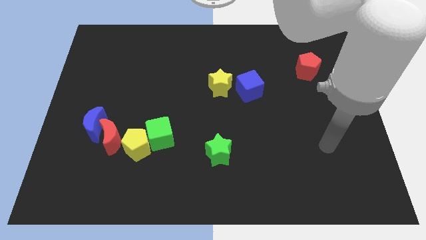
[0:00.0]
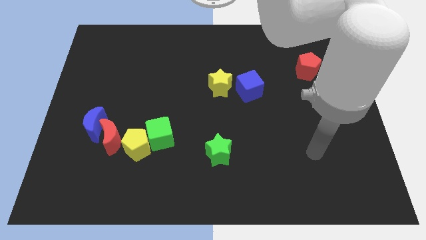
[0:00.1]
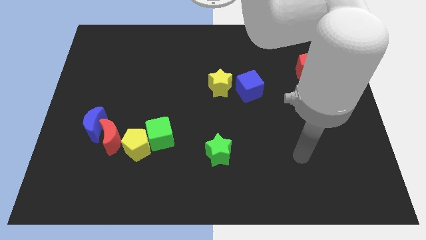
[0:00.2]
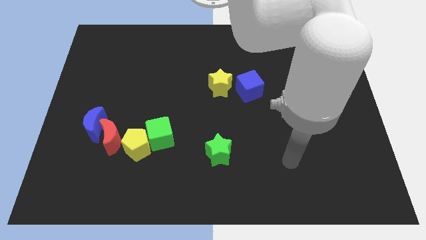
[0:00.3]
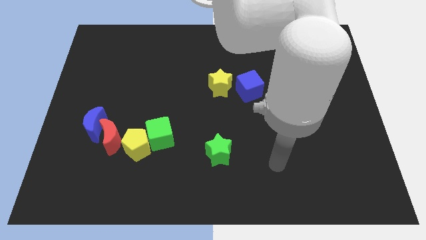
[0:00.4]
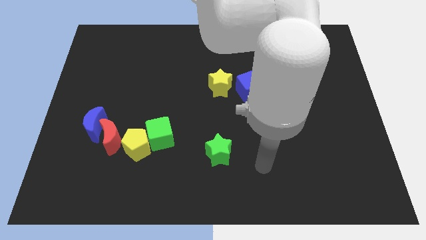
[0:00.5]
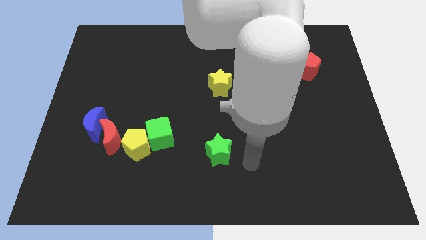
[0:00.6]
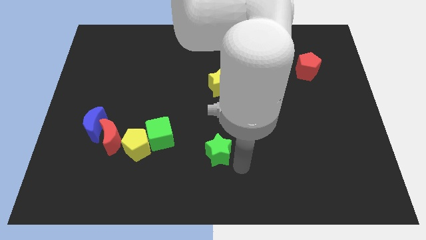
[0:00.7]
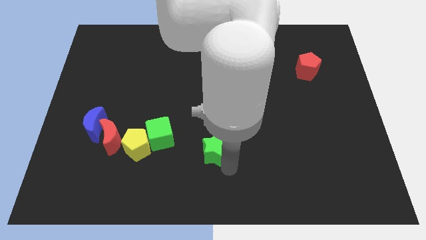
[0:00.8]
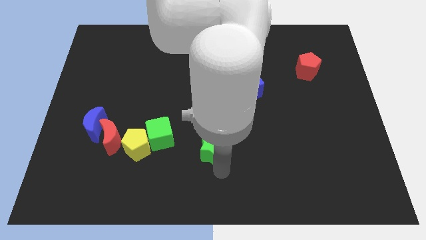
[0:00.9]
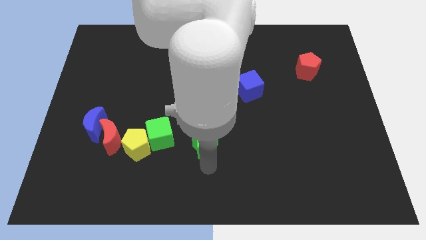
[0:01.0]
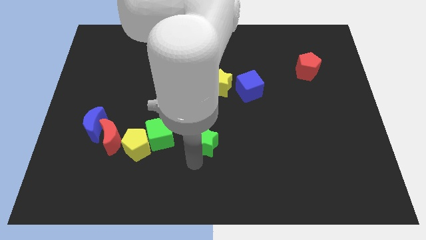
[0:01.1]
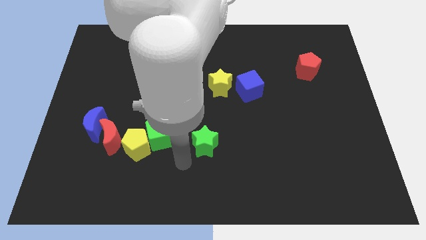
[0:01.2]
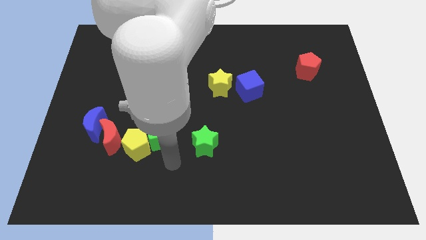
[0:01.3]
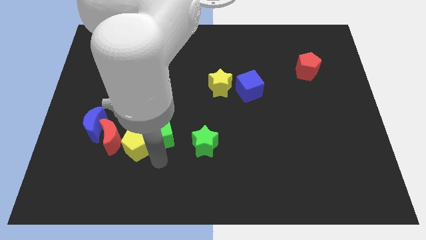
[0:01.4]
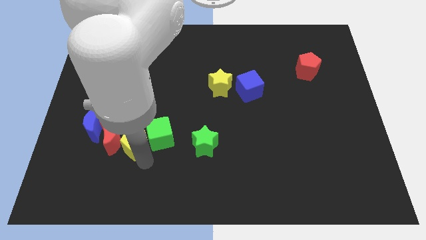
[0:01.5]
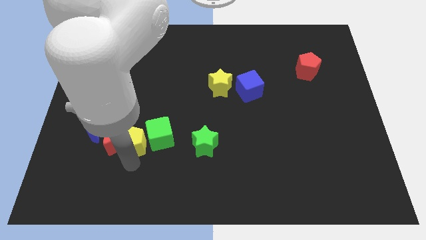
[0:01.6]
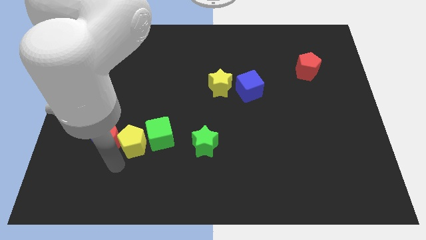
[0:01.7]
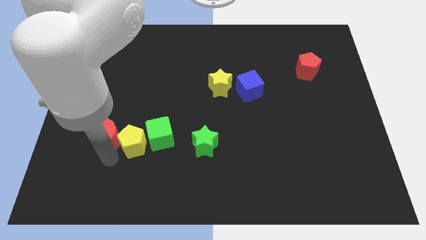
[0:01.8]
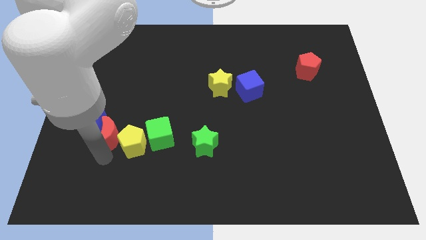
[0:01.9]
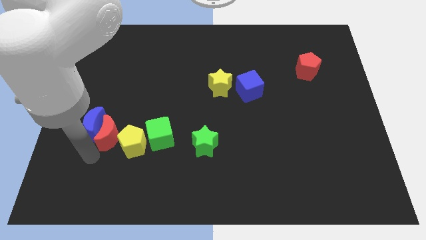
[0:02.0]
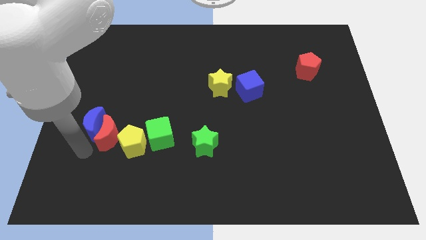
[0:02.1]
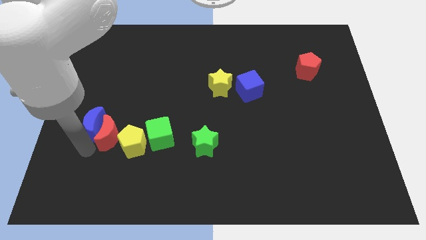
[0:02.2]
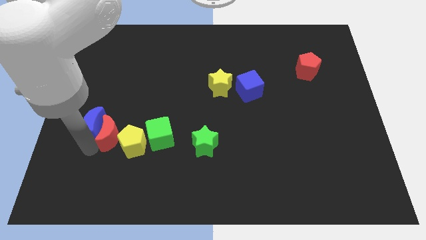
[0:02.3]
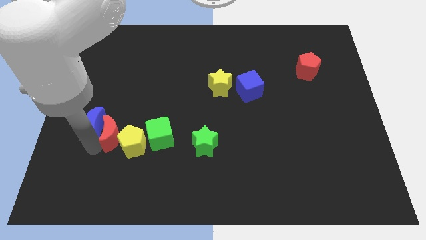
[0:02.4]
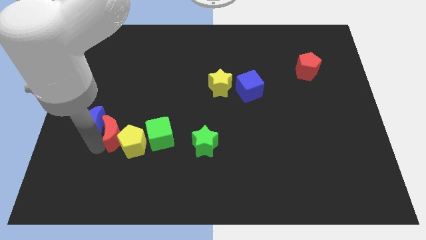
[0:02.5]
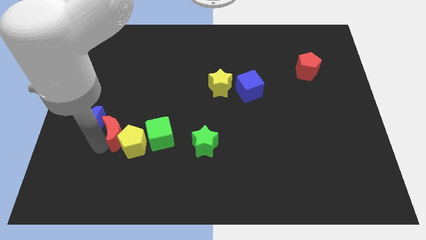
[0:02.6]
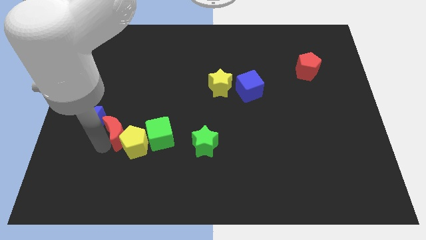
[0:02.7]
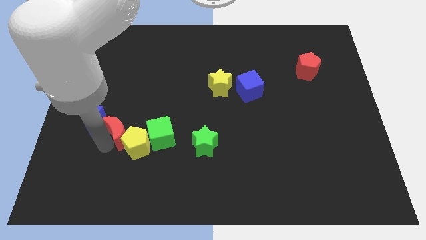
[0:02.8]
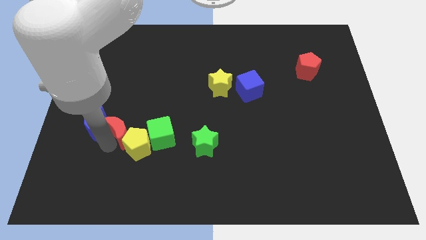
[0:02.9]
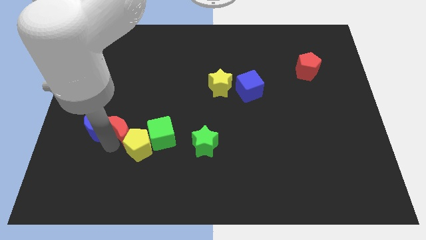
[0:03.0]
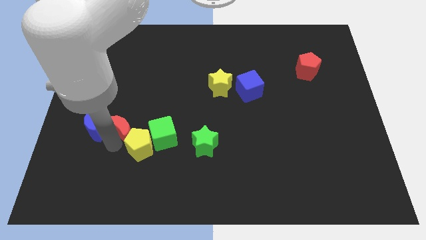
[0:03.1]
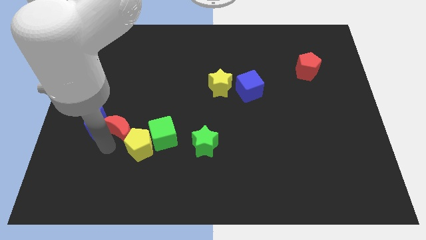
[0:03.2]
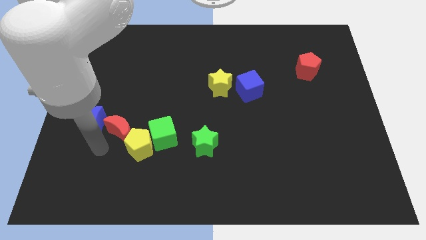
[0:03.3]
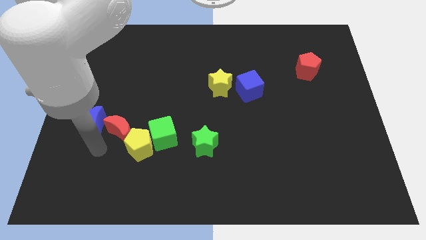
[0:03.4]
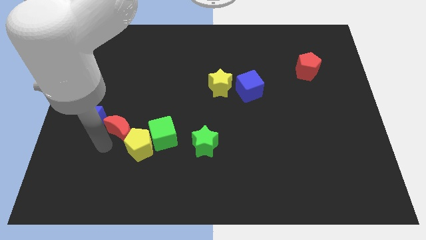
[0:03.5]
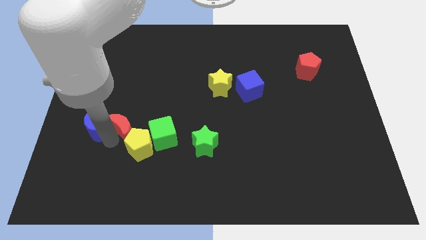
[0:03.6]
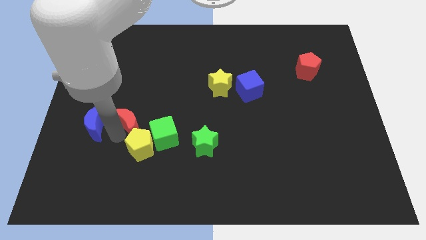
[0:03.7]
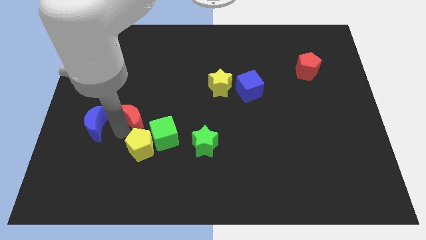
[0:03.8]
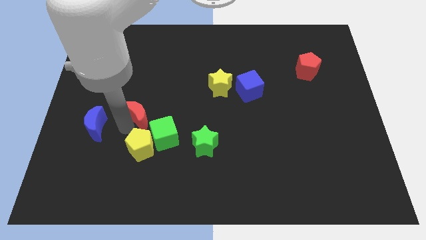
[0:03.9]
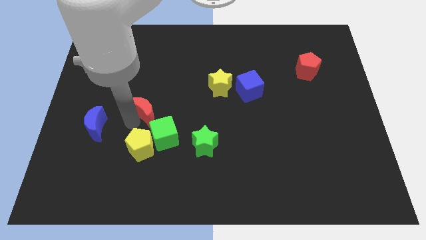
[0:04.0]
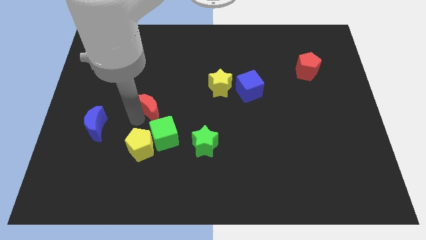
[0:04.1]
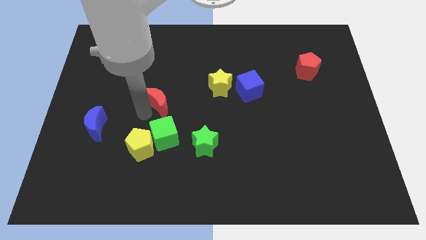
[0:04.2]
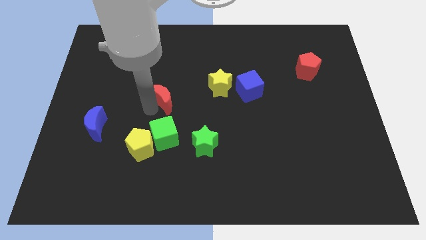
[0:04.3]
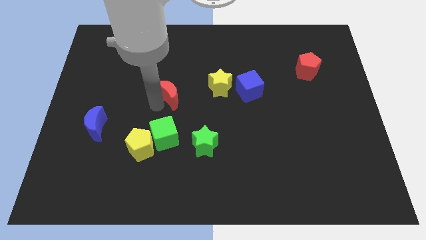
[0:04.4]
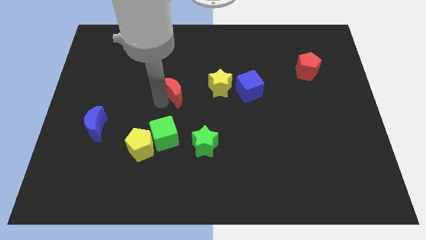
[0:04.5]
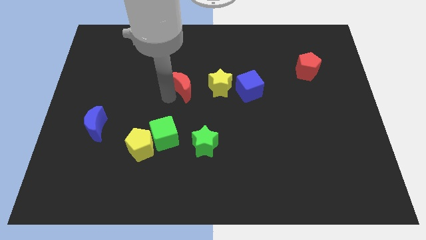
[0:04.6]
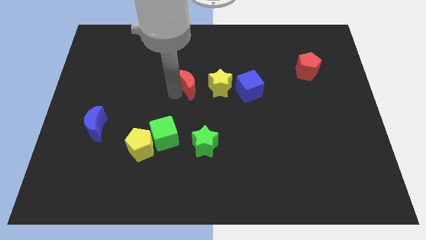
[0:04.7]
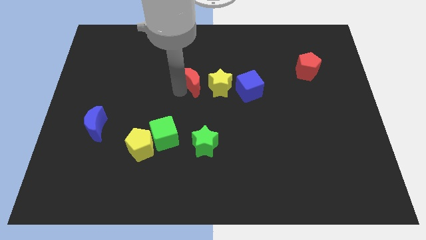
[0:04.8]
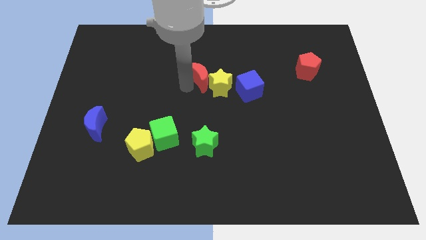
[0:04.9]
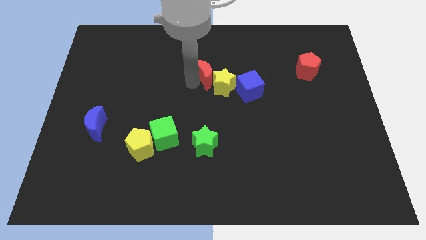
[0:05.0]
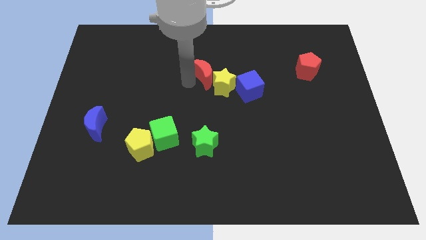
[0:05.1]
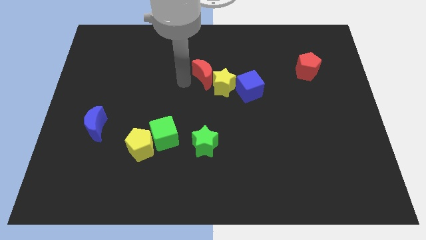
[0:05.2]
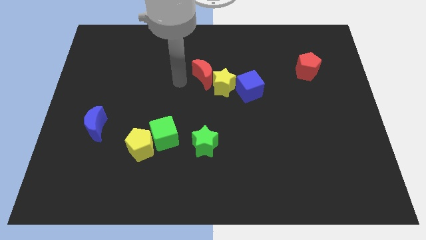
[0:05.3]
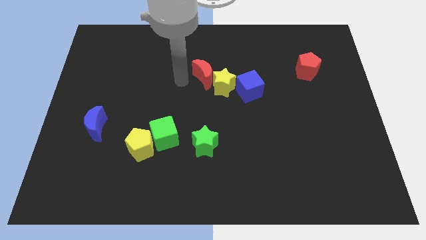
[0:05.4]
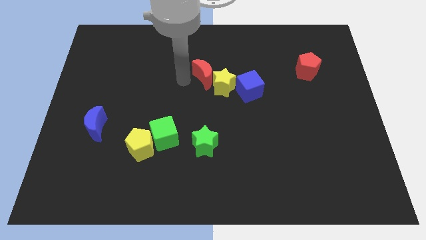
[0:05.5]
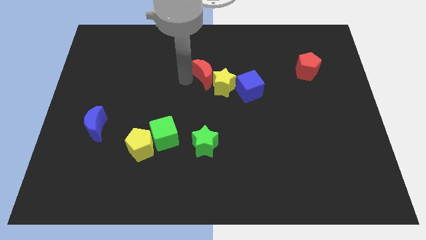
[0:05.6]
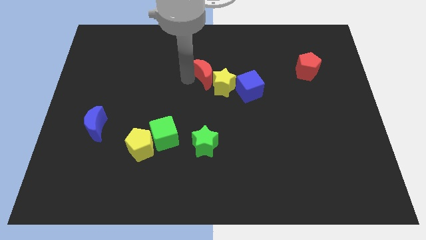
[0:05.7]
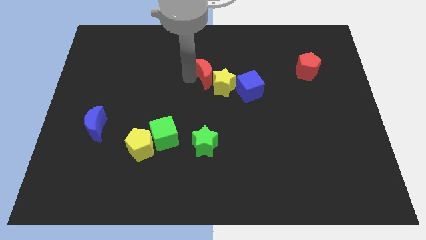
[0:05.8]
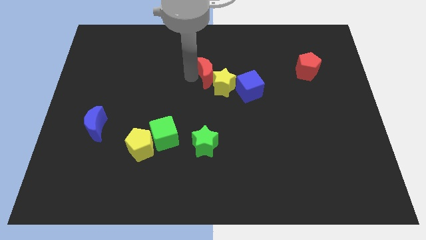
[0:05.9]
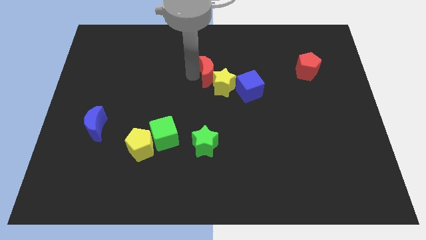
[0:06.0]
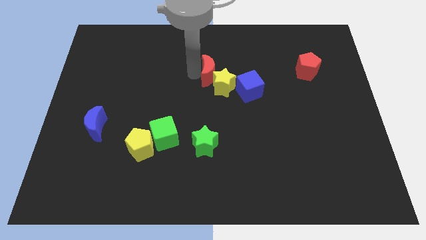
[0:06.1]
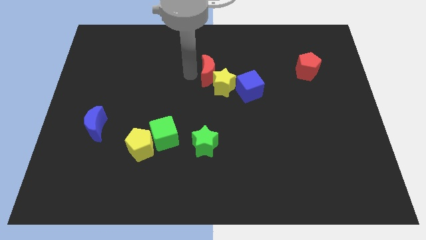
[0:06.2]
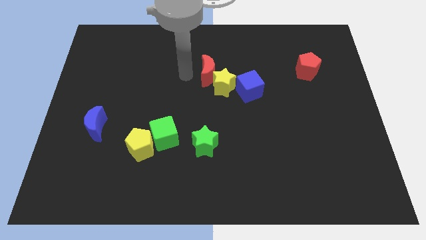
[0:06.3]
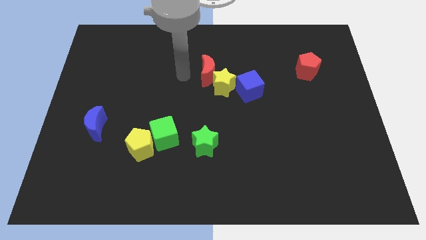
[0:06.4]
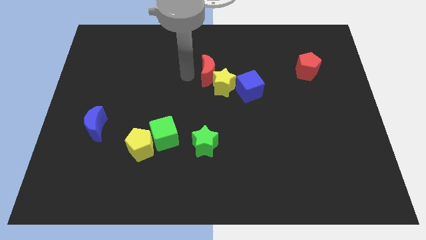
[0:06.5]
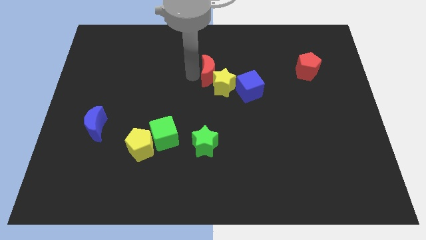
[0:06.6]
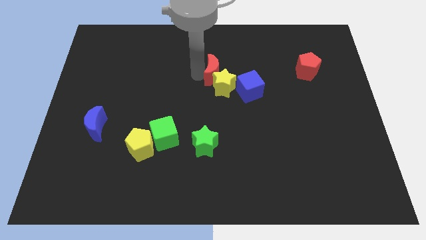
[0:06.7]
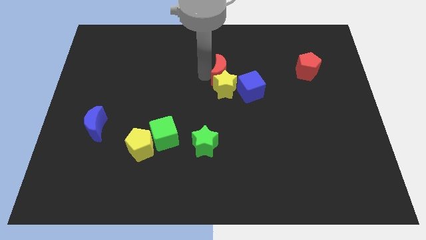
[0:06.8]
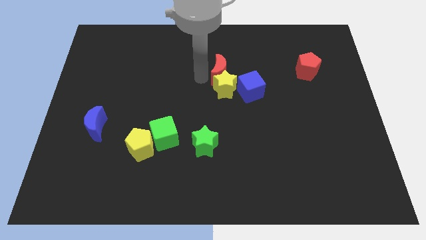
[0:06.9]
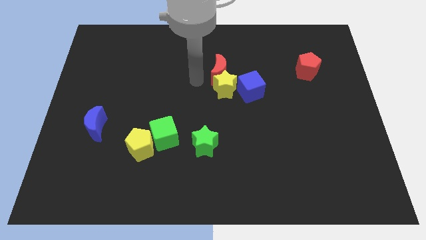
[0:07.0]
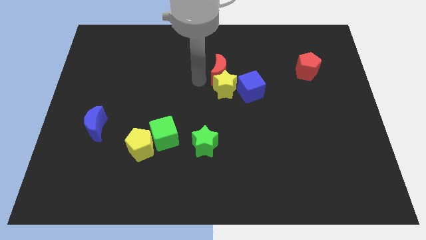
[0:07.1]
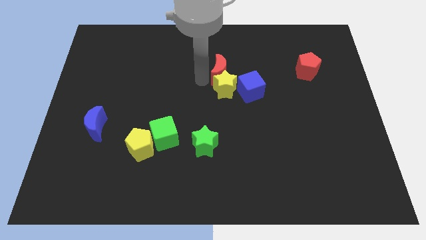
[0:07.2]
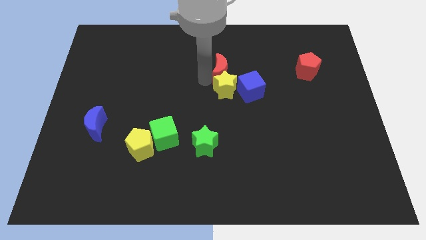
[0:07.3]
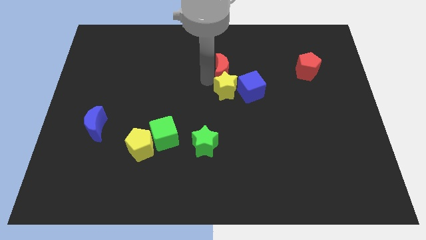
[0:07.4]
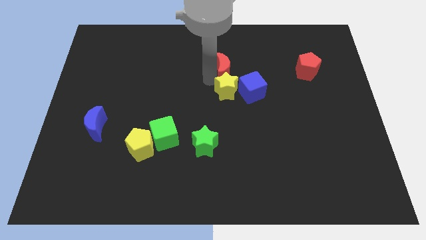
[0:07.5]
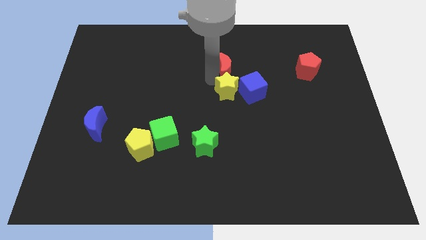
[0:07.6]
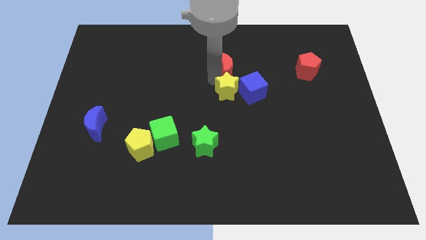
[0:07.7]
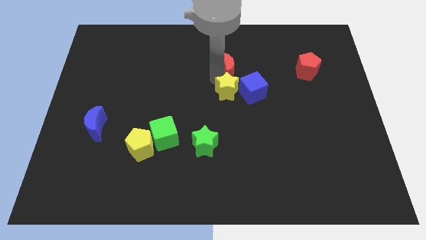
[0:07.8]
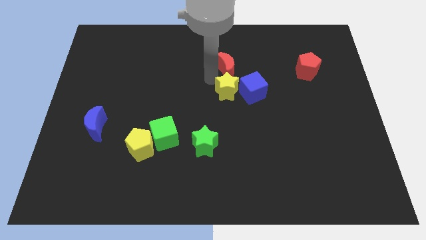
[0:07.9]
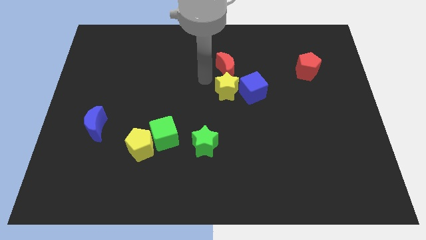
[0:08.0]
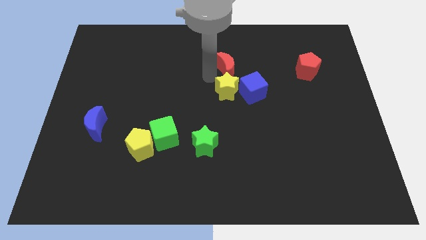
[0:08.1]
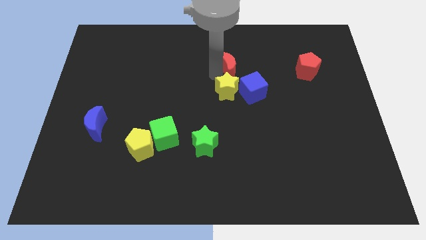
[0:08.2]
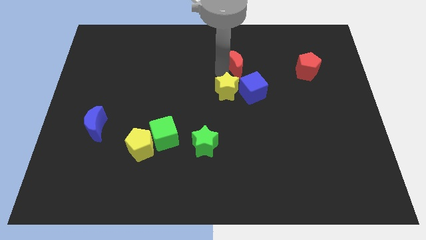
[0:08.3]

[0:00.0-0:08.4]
move the red moon to the top of the blue cube
